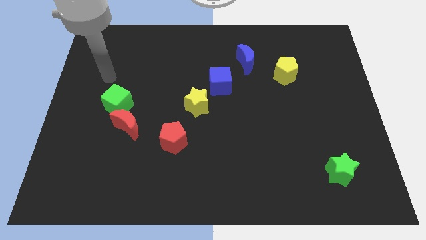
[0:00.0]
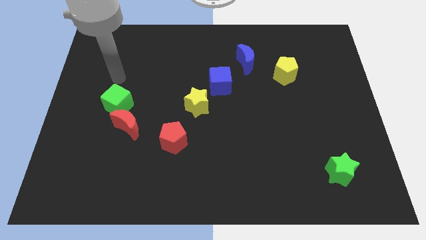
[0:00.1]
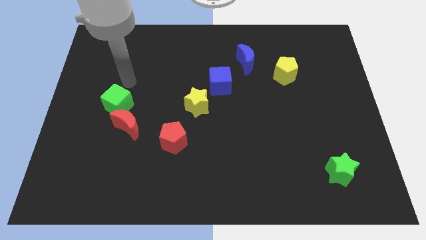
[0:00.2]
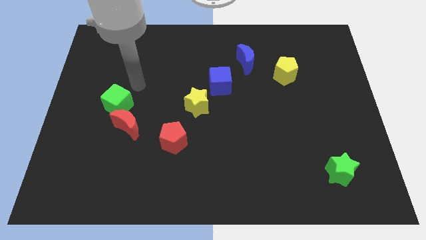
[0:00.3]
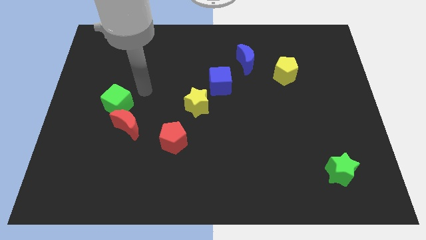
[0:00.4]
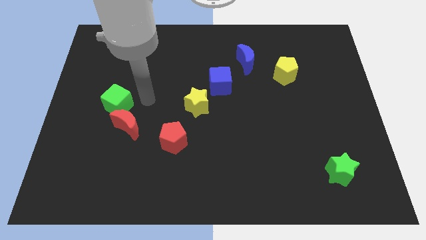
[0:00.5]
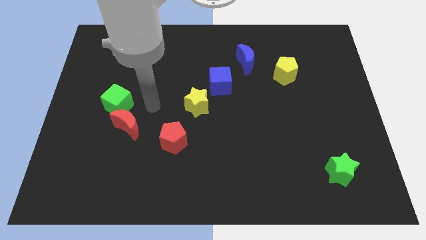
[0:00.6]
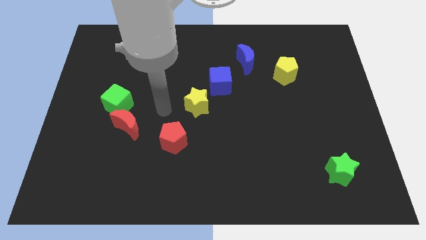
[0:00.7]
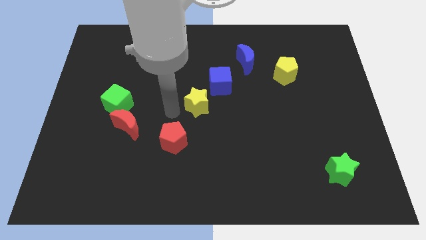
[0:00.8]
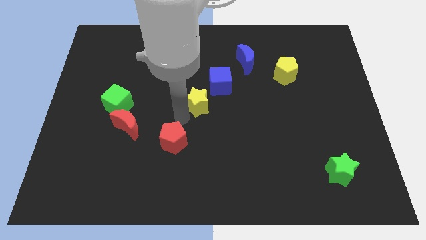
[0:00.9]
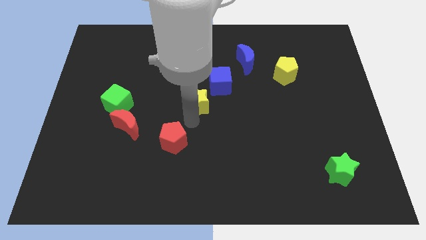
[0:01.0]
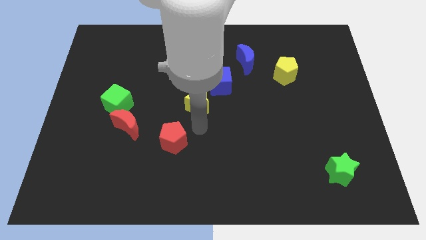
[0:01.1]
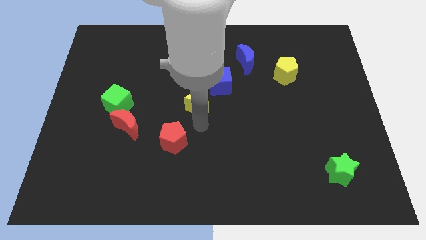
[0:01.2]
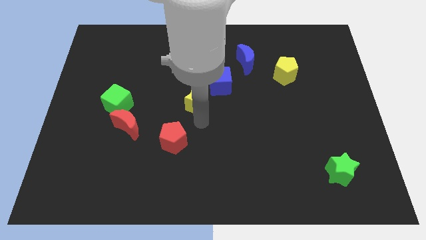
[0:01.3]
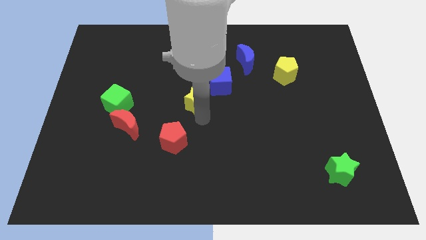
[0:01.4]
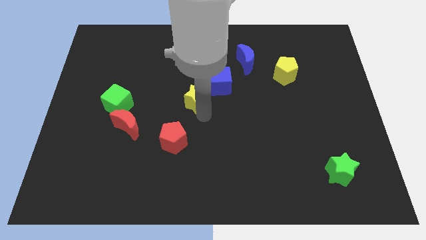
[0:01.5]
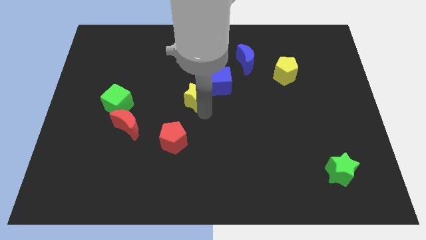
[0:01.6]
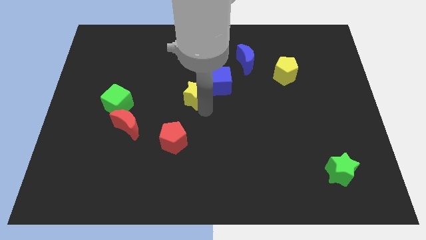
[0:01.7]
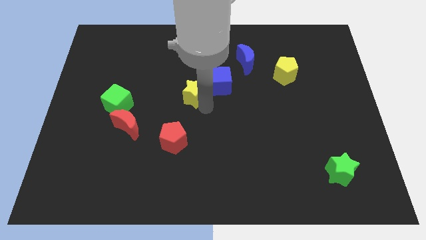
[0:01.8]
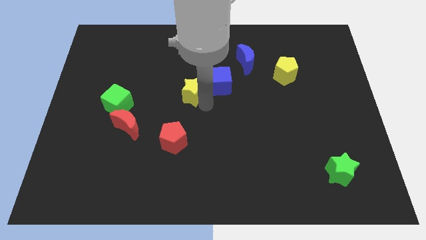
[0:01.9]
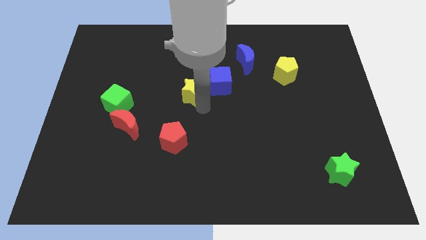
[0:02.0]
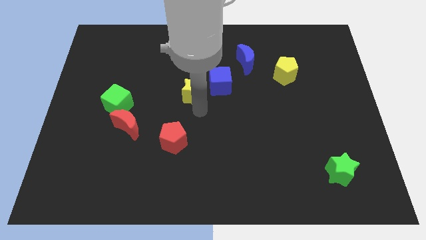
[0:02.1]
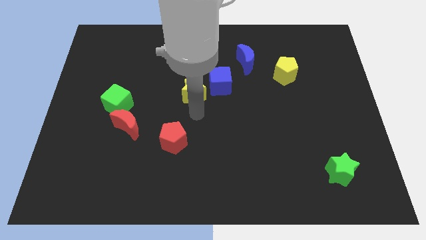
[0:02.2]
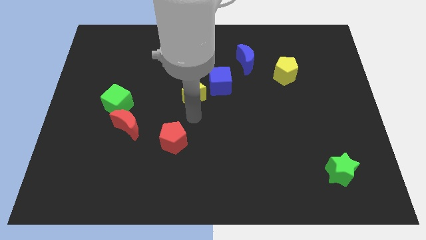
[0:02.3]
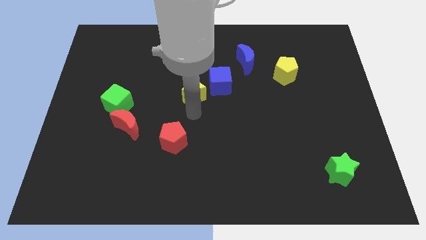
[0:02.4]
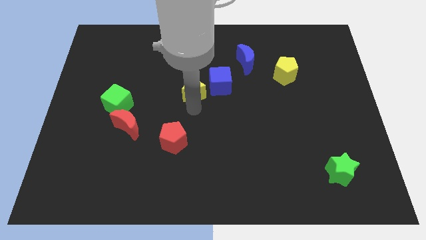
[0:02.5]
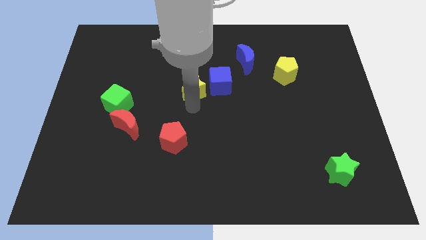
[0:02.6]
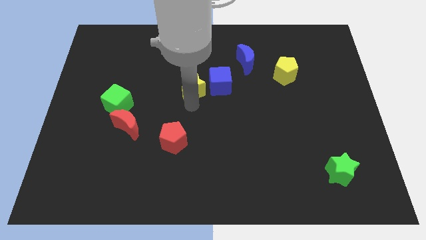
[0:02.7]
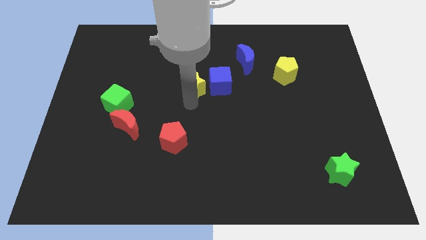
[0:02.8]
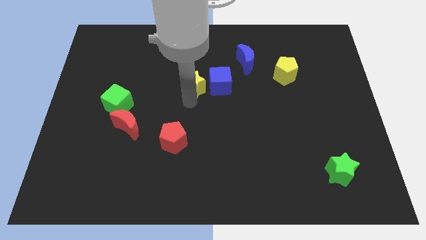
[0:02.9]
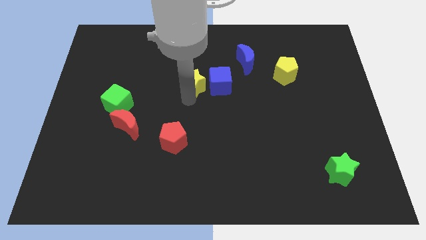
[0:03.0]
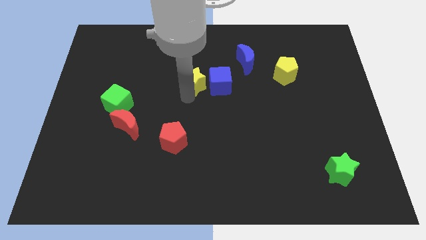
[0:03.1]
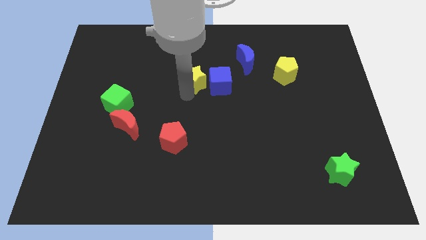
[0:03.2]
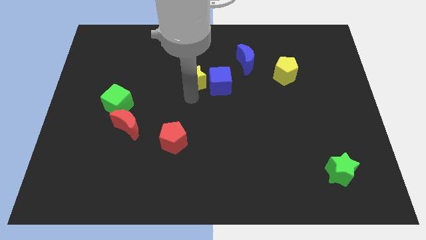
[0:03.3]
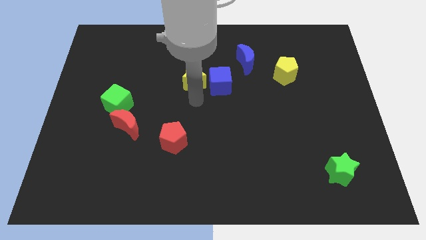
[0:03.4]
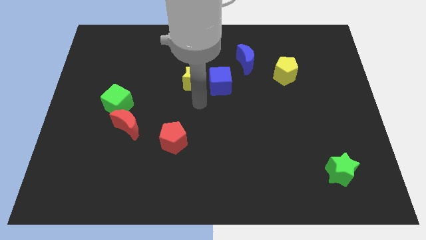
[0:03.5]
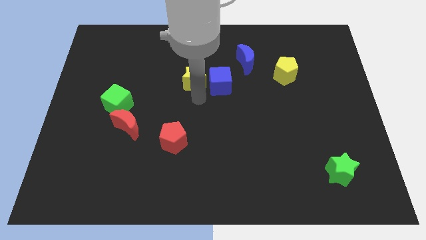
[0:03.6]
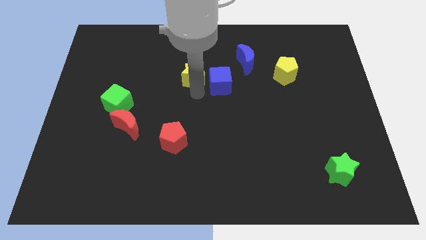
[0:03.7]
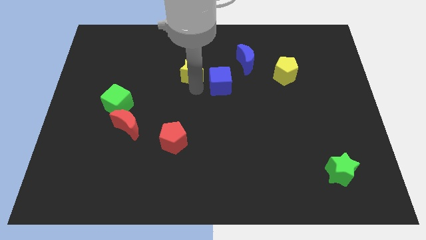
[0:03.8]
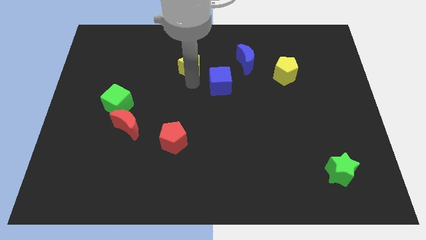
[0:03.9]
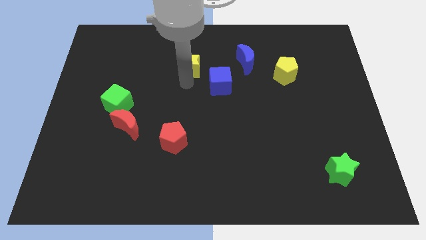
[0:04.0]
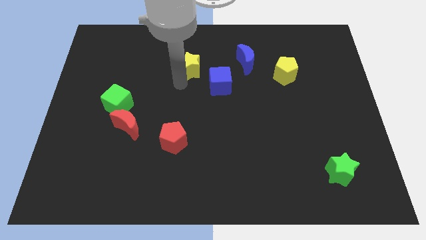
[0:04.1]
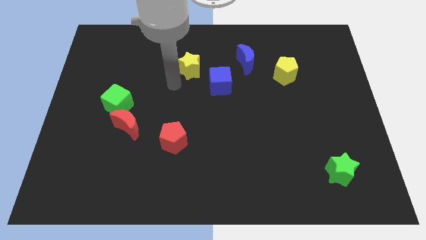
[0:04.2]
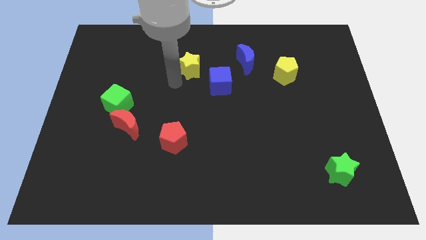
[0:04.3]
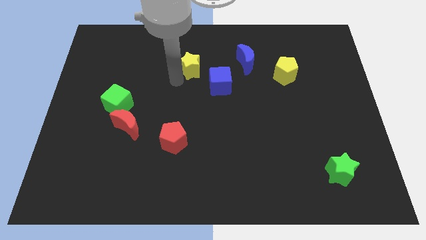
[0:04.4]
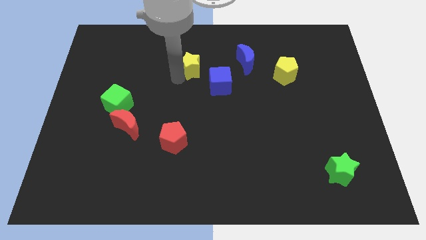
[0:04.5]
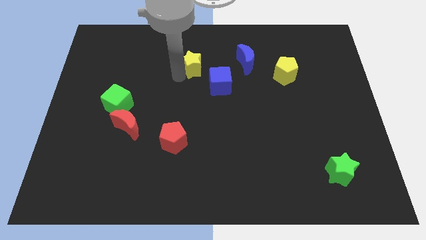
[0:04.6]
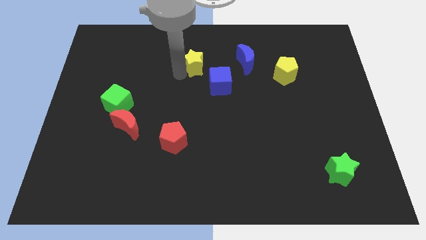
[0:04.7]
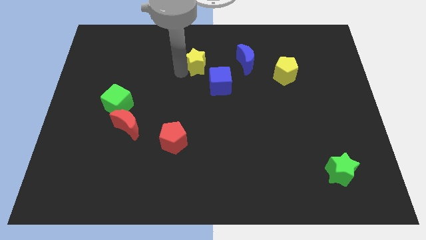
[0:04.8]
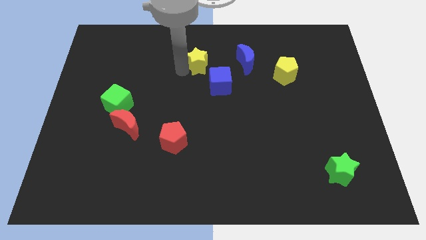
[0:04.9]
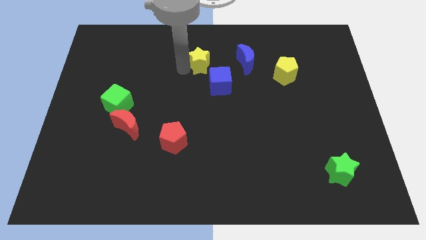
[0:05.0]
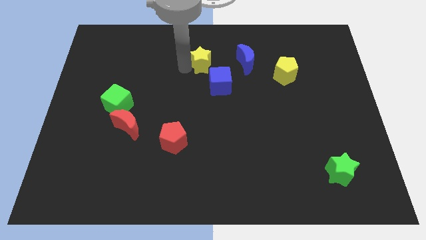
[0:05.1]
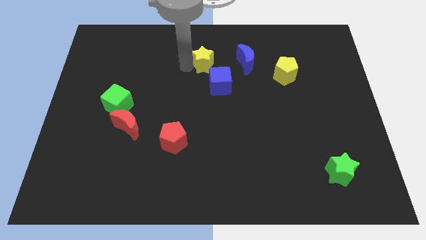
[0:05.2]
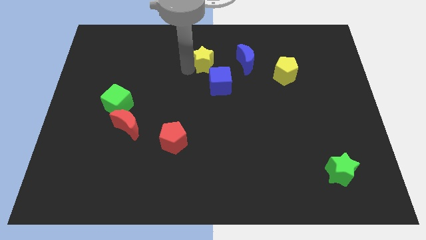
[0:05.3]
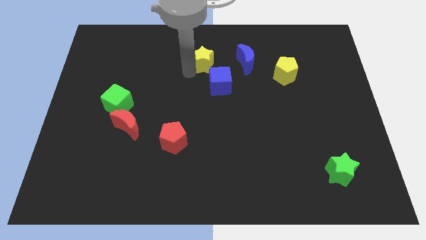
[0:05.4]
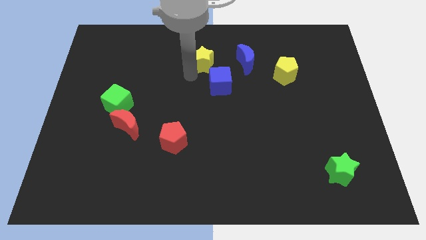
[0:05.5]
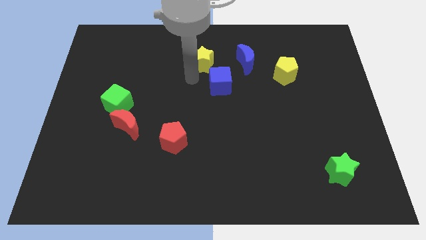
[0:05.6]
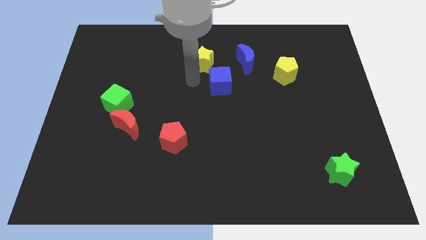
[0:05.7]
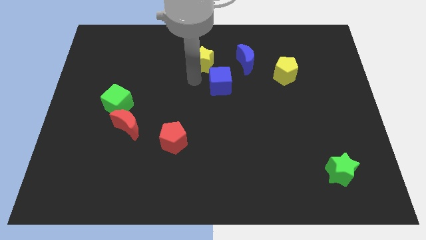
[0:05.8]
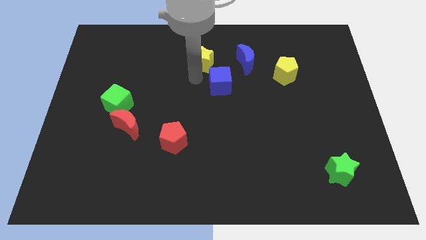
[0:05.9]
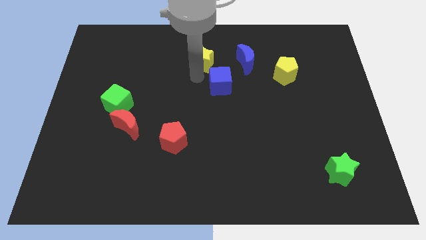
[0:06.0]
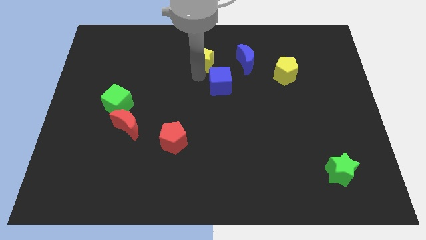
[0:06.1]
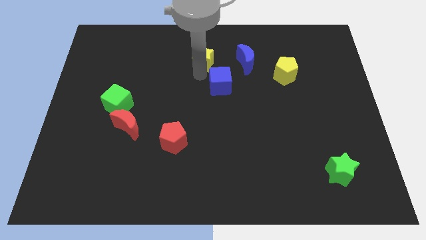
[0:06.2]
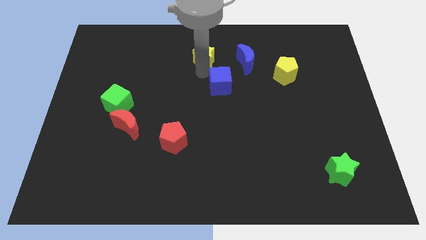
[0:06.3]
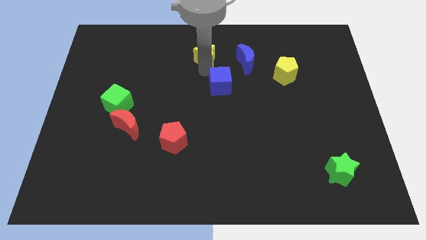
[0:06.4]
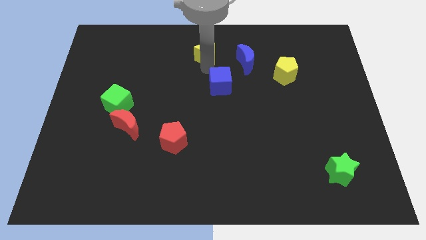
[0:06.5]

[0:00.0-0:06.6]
push the yellow star to the towards your base
